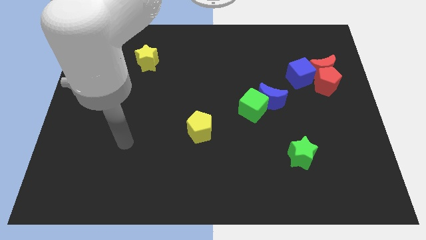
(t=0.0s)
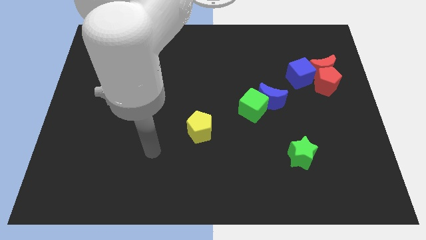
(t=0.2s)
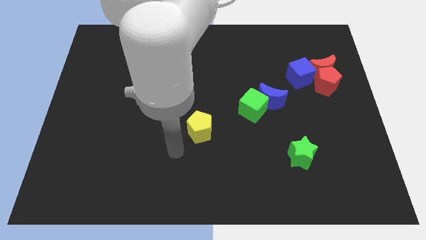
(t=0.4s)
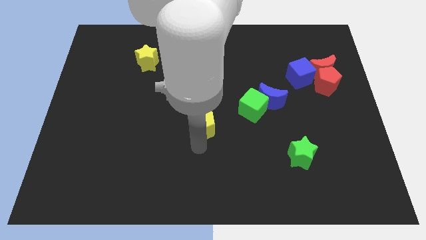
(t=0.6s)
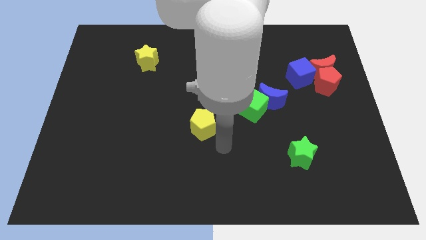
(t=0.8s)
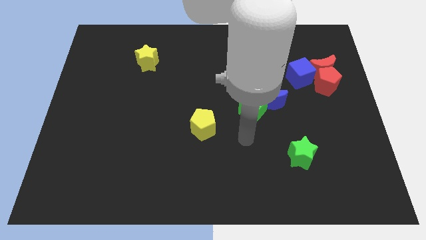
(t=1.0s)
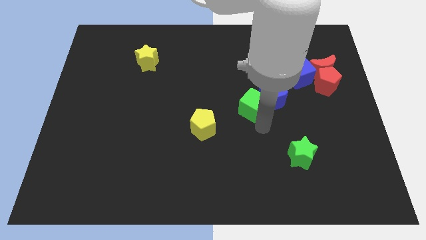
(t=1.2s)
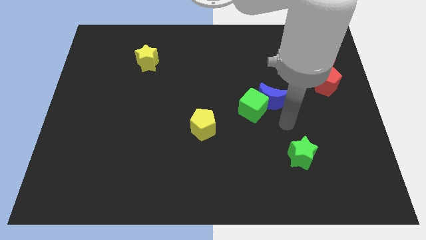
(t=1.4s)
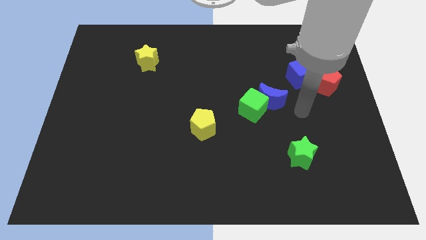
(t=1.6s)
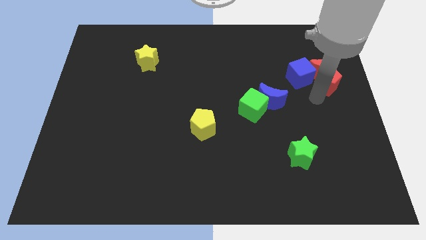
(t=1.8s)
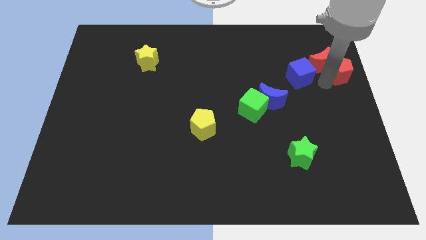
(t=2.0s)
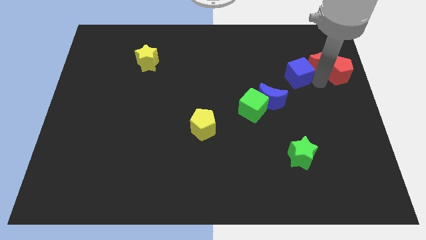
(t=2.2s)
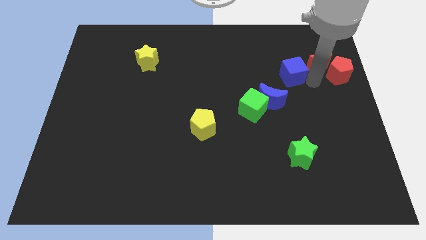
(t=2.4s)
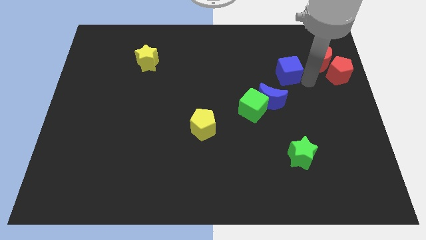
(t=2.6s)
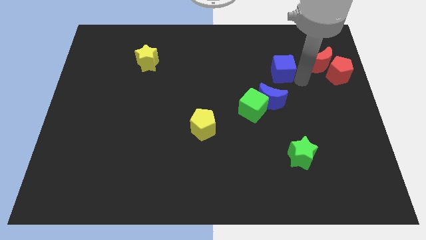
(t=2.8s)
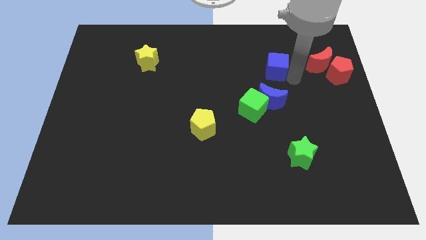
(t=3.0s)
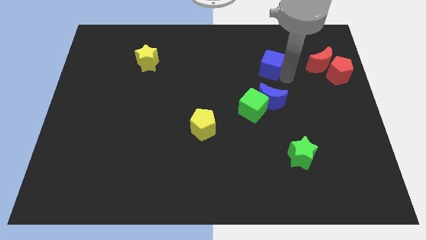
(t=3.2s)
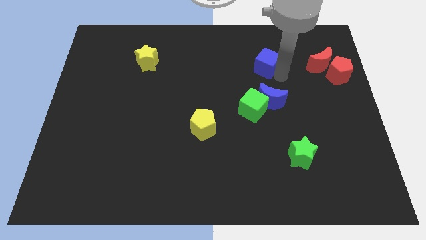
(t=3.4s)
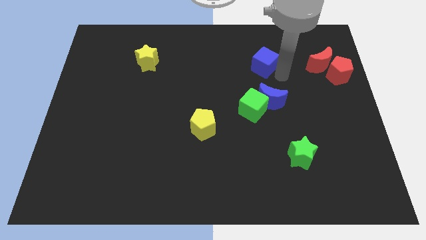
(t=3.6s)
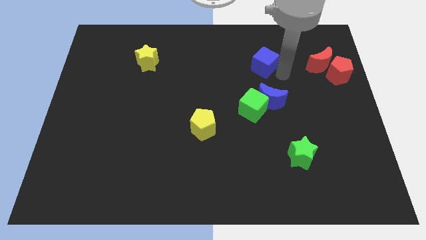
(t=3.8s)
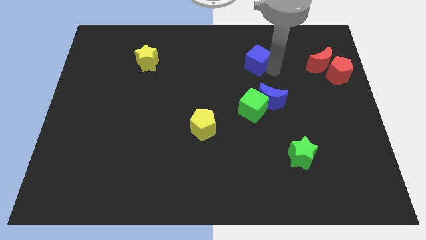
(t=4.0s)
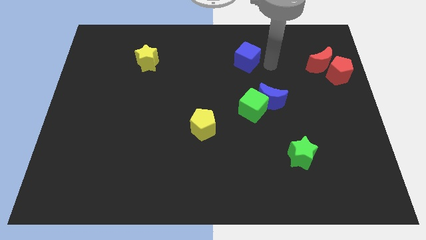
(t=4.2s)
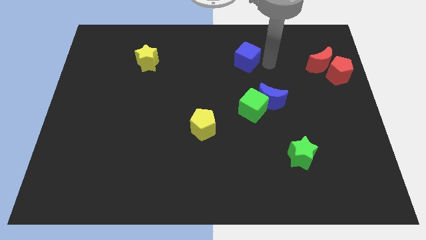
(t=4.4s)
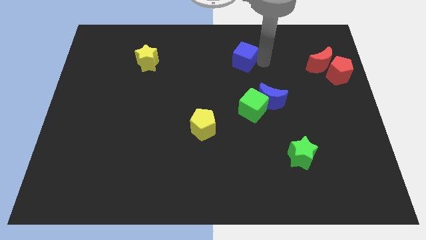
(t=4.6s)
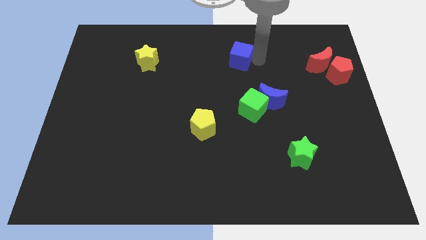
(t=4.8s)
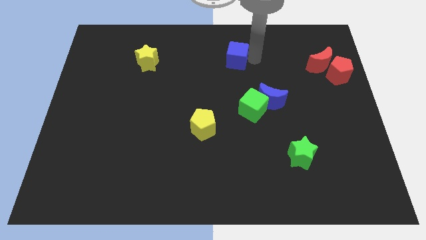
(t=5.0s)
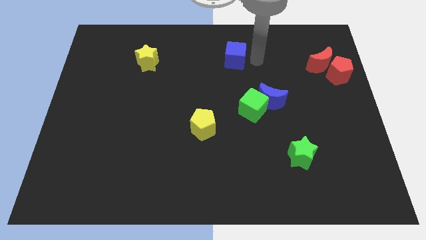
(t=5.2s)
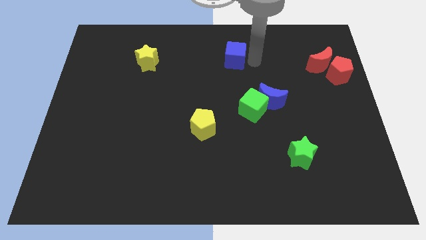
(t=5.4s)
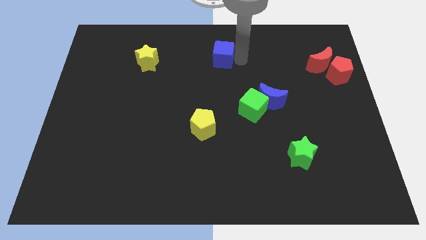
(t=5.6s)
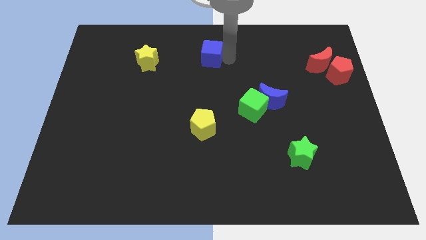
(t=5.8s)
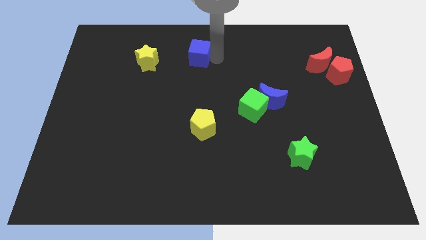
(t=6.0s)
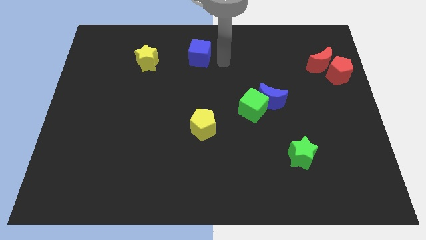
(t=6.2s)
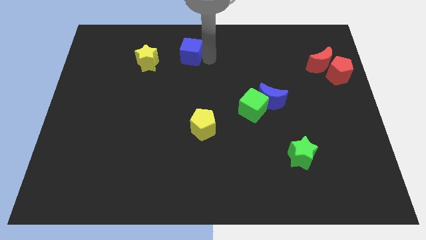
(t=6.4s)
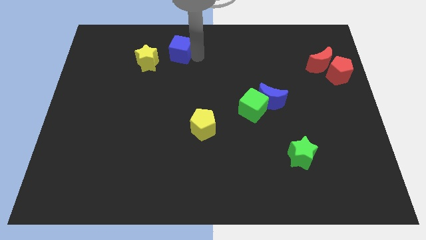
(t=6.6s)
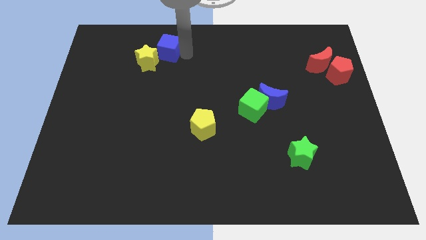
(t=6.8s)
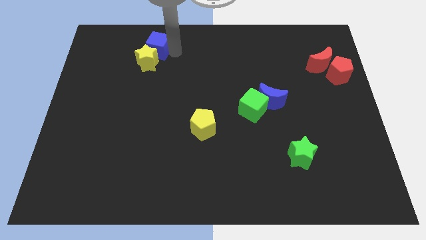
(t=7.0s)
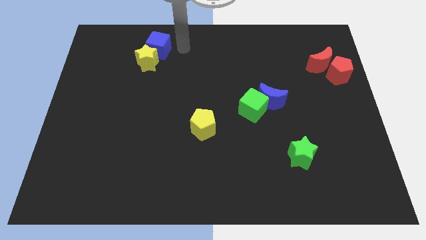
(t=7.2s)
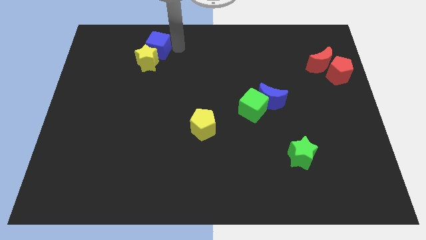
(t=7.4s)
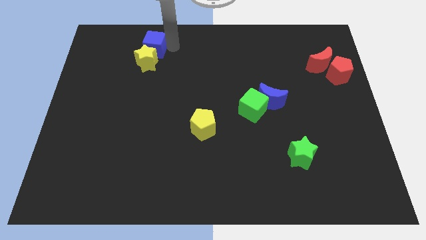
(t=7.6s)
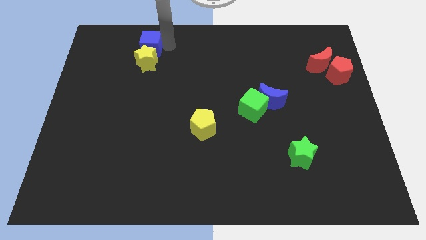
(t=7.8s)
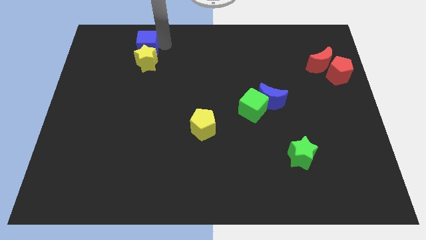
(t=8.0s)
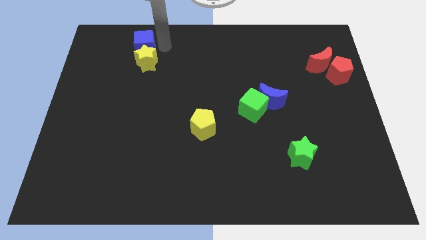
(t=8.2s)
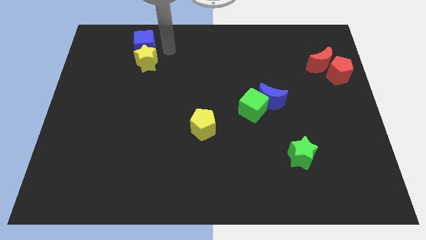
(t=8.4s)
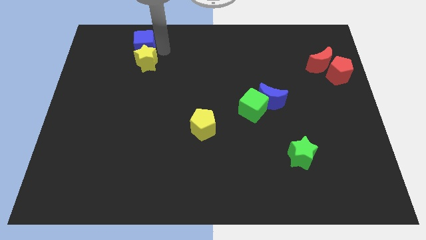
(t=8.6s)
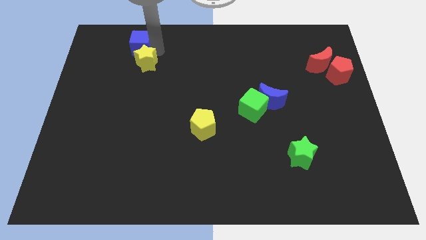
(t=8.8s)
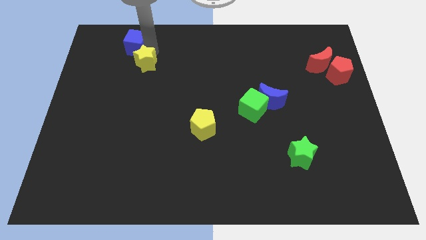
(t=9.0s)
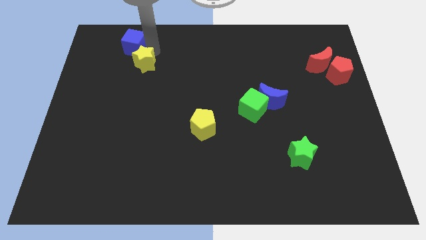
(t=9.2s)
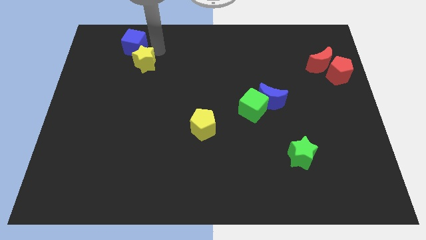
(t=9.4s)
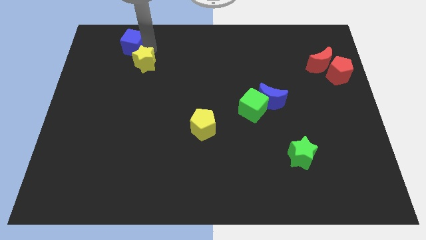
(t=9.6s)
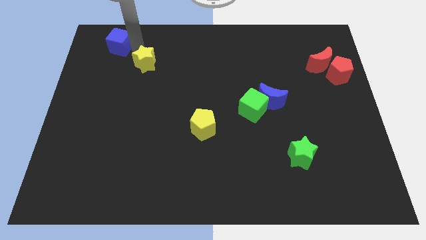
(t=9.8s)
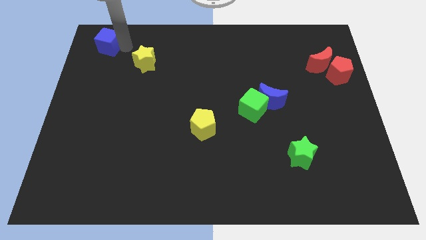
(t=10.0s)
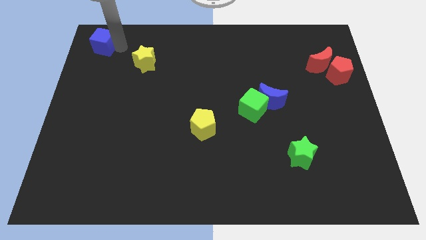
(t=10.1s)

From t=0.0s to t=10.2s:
move the blue cube to the top left corner

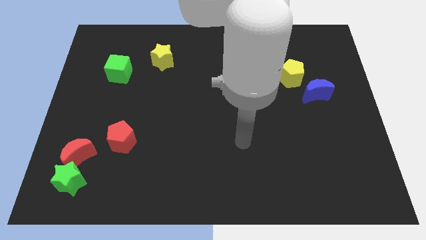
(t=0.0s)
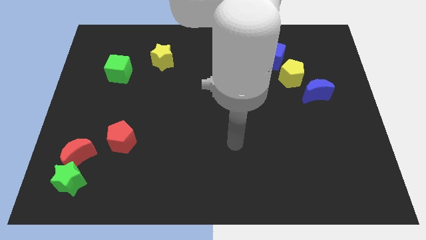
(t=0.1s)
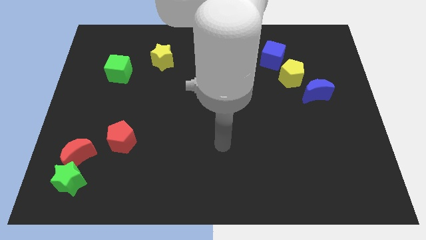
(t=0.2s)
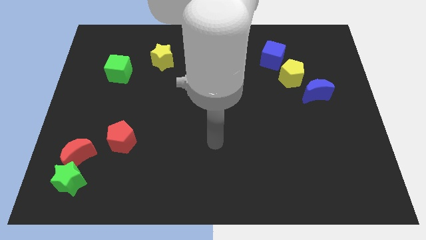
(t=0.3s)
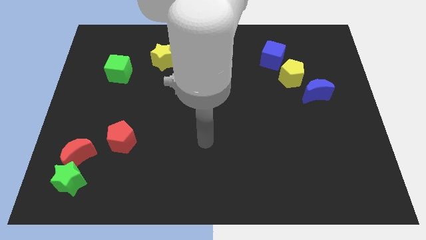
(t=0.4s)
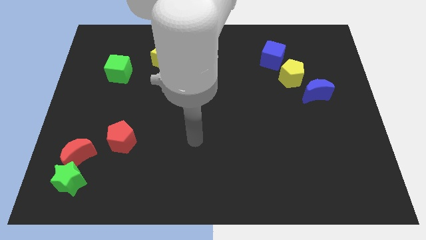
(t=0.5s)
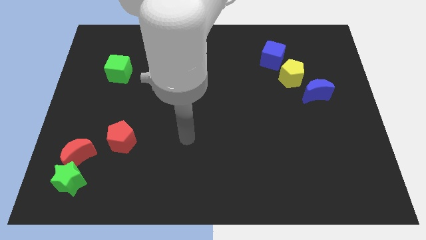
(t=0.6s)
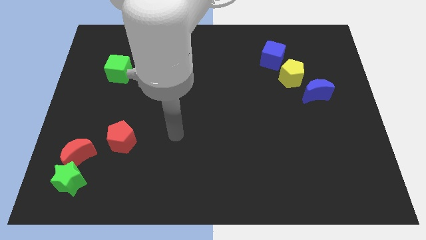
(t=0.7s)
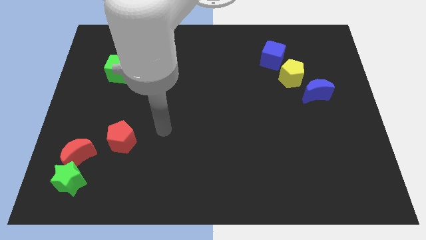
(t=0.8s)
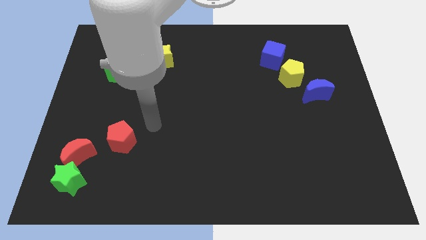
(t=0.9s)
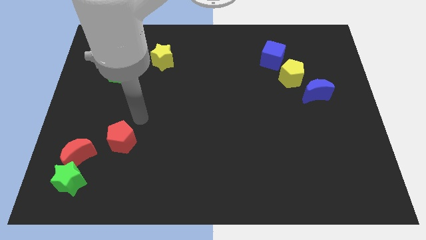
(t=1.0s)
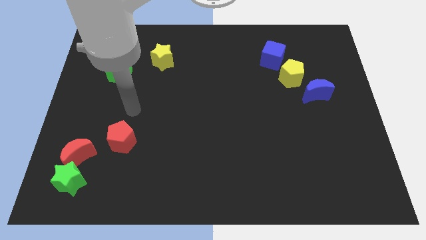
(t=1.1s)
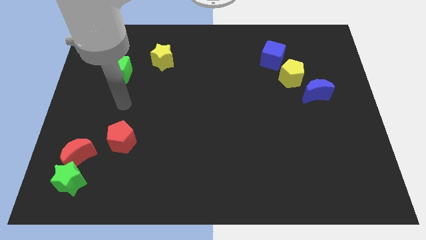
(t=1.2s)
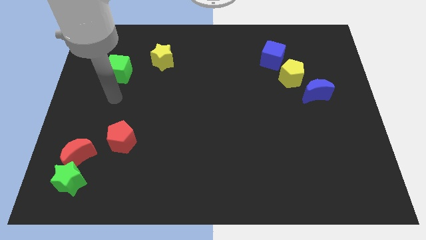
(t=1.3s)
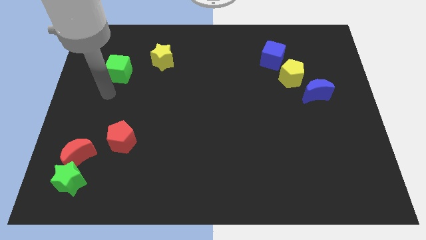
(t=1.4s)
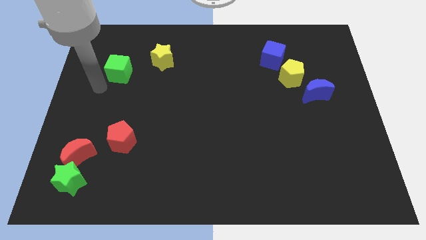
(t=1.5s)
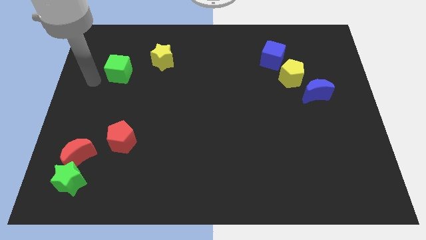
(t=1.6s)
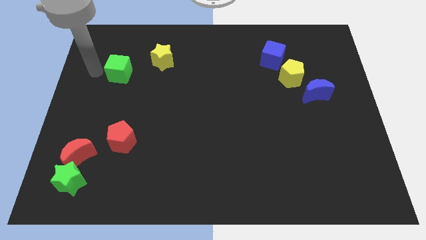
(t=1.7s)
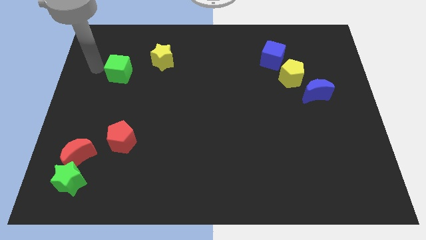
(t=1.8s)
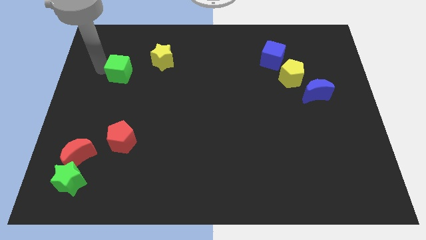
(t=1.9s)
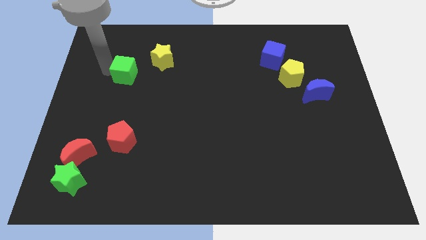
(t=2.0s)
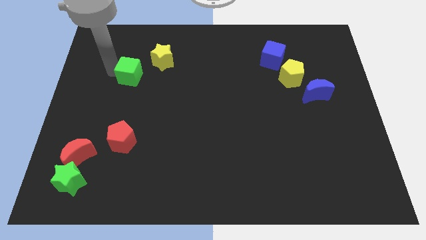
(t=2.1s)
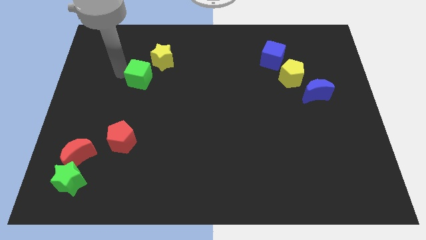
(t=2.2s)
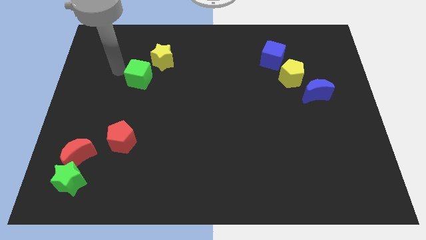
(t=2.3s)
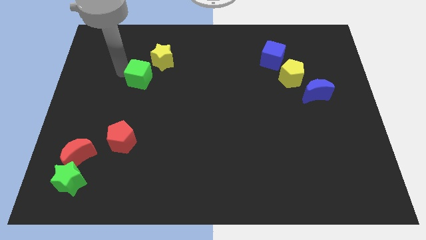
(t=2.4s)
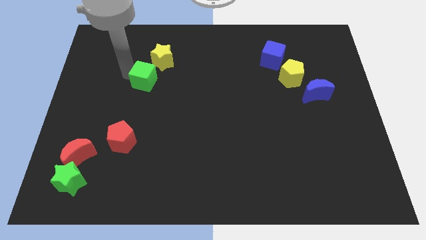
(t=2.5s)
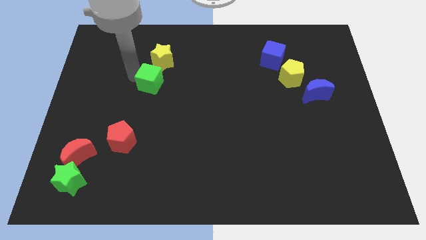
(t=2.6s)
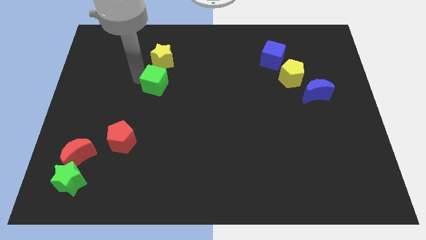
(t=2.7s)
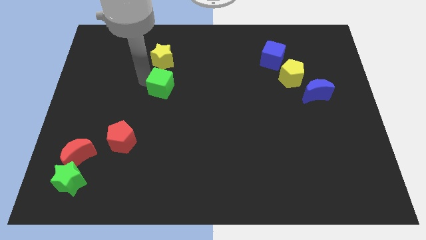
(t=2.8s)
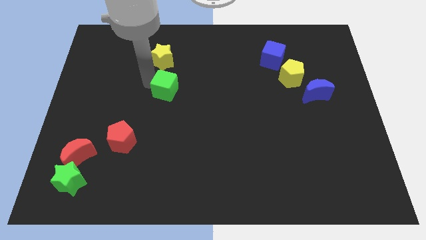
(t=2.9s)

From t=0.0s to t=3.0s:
slide the green cube to the middle
